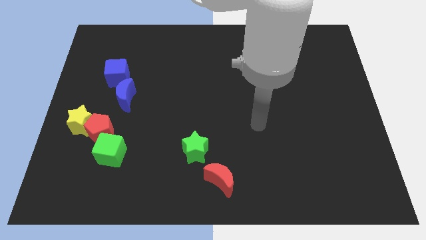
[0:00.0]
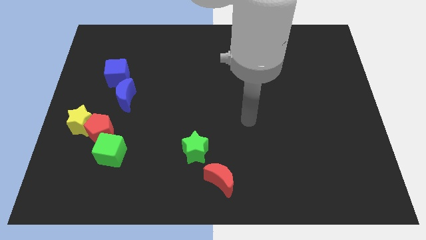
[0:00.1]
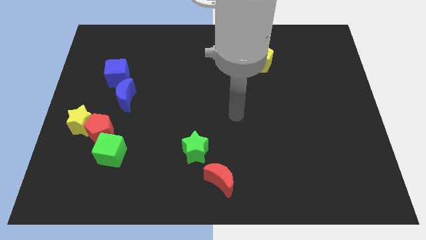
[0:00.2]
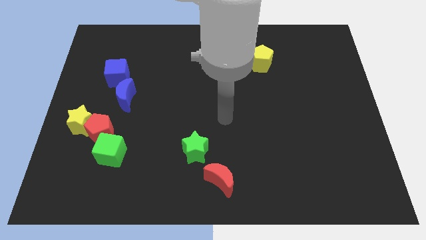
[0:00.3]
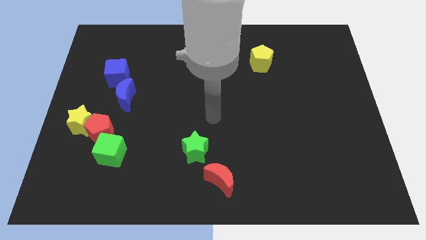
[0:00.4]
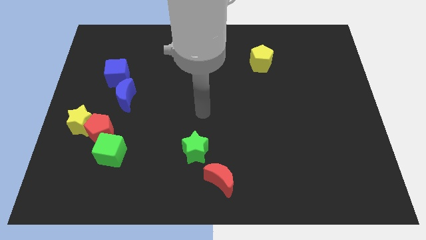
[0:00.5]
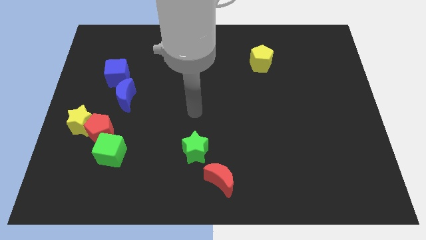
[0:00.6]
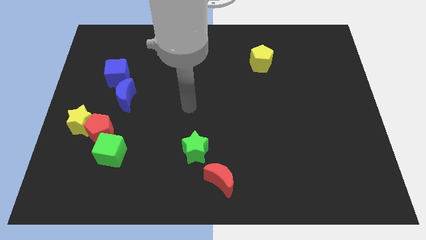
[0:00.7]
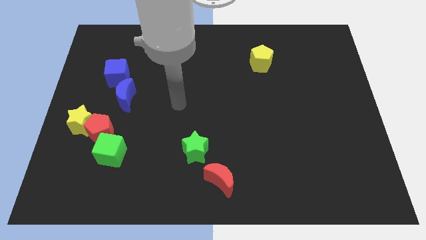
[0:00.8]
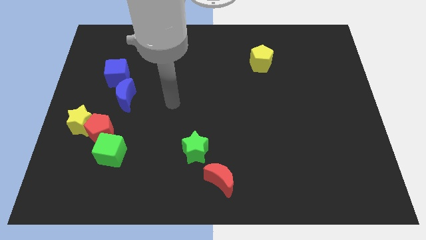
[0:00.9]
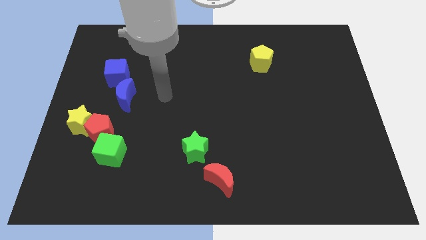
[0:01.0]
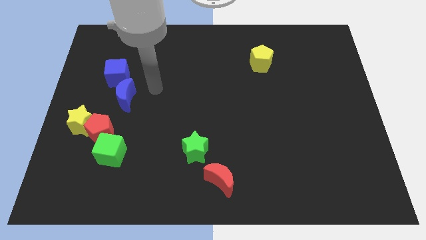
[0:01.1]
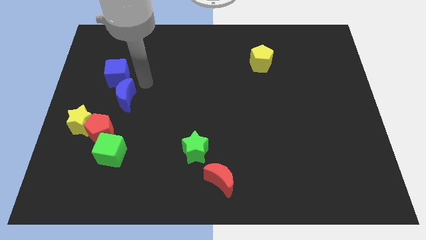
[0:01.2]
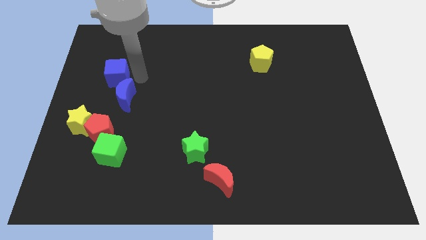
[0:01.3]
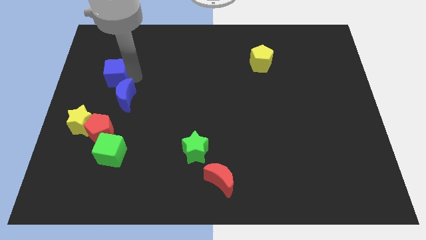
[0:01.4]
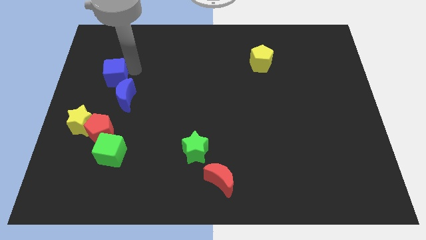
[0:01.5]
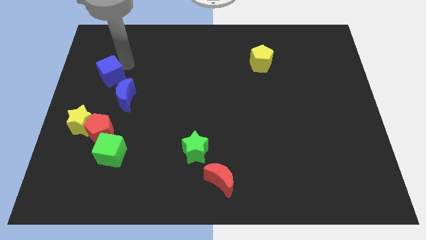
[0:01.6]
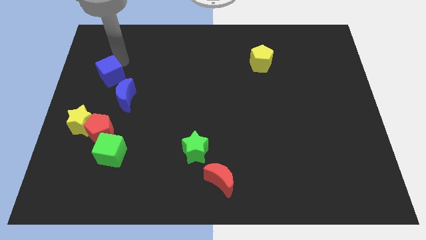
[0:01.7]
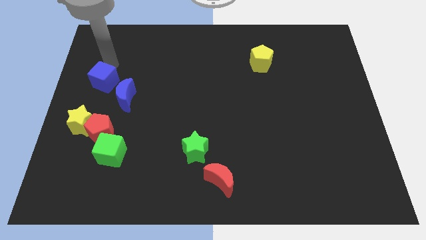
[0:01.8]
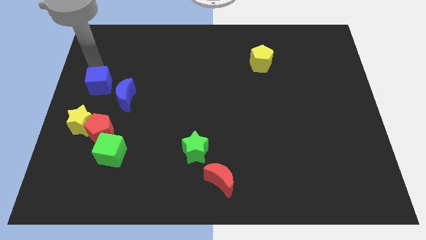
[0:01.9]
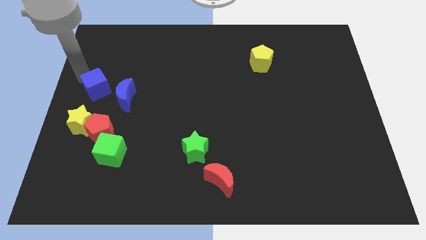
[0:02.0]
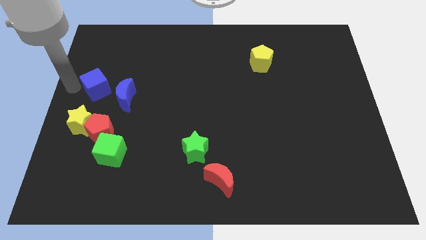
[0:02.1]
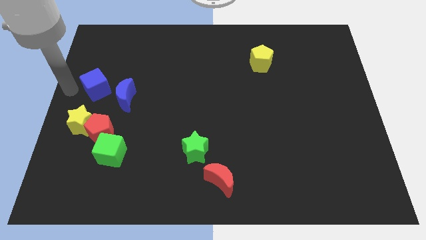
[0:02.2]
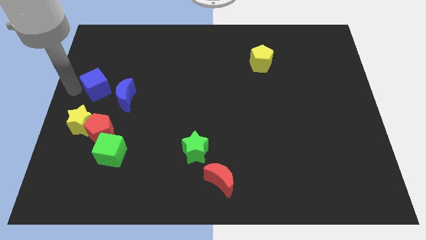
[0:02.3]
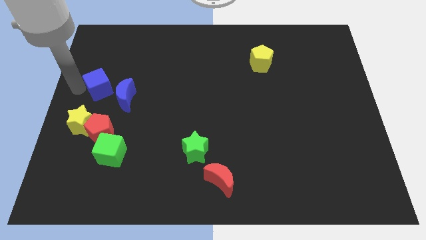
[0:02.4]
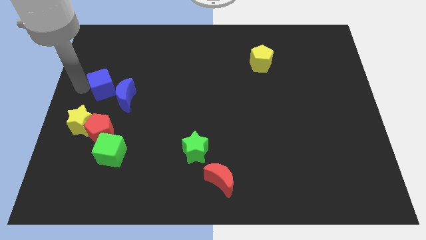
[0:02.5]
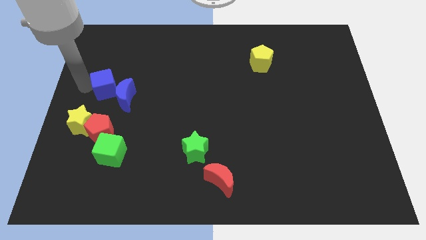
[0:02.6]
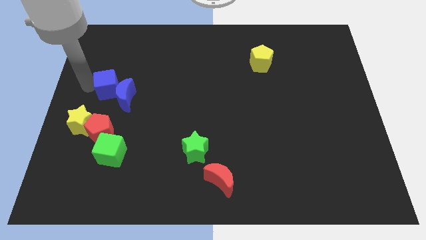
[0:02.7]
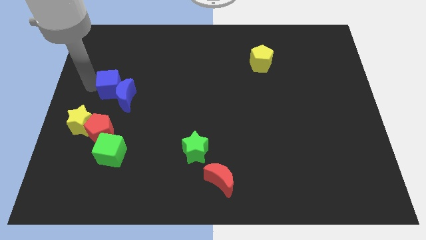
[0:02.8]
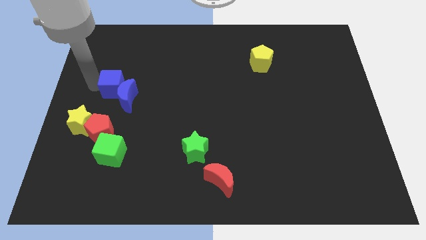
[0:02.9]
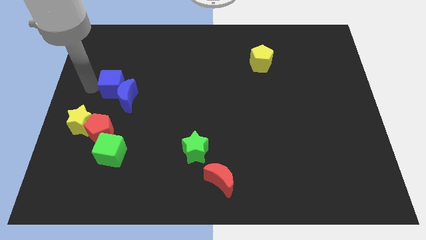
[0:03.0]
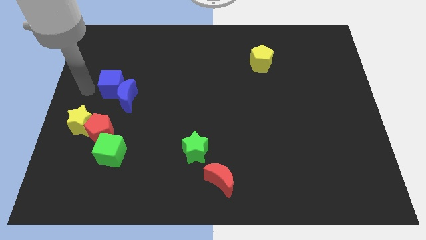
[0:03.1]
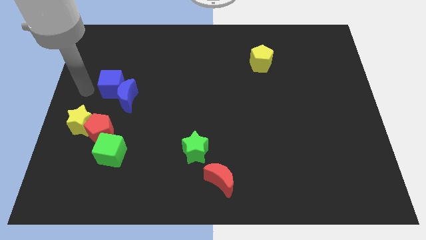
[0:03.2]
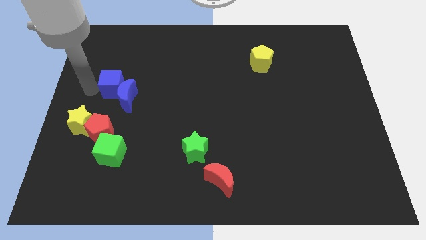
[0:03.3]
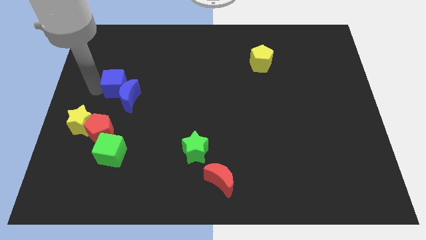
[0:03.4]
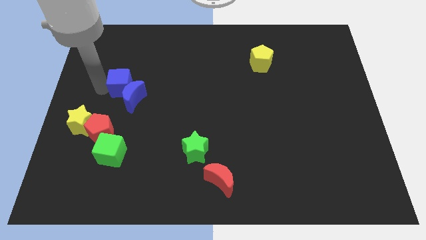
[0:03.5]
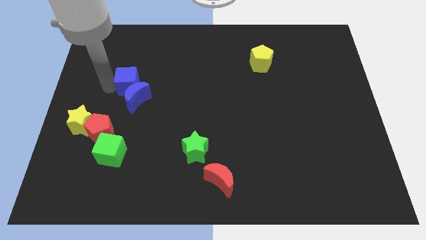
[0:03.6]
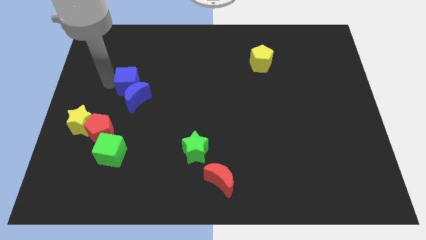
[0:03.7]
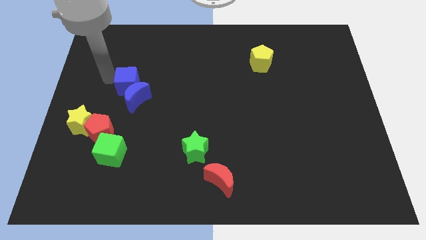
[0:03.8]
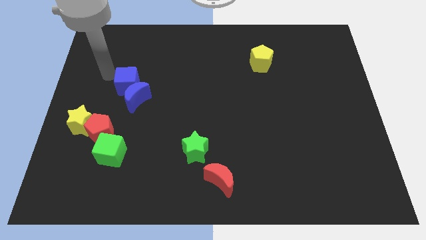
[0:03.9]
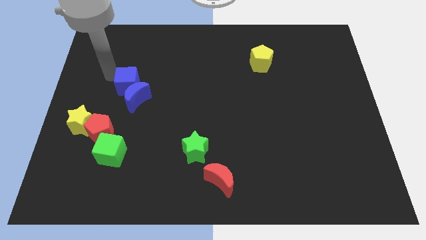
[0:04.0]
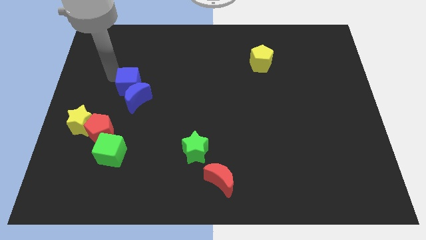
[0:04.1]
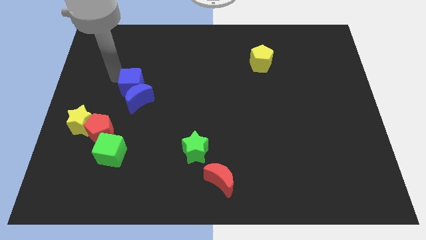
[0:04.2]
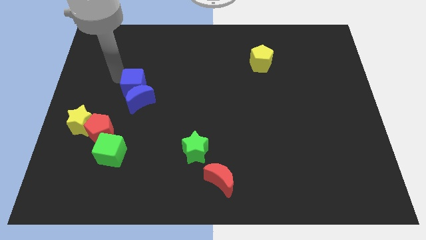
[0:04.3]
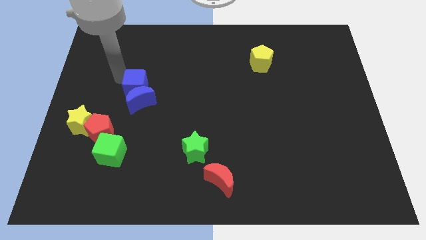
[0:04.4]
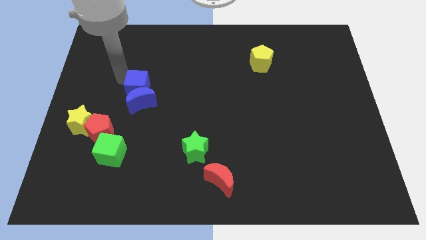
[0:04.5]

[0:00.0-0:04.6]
push the blue cube down and to the right diagonally somewhat

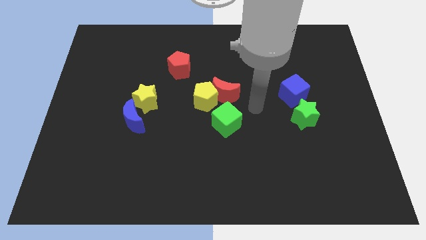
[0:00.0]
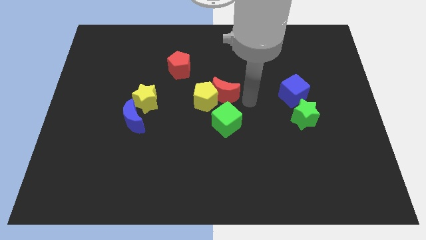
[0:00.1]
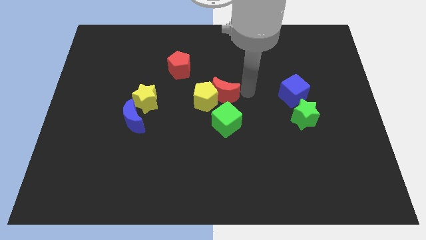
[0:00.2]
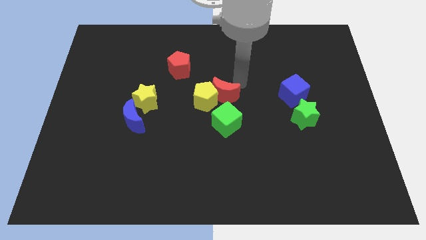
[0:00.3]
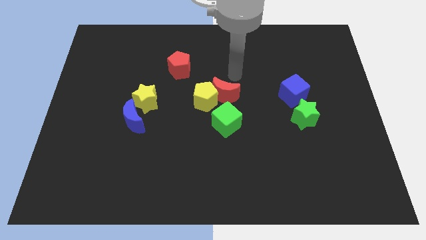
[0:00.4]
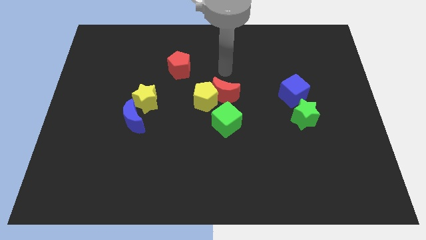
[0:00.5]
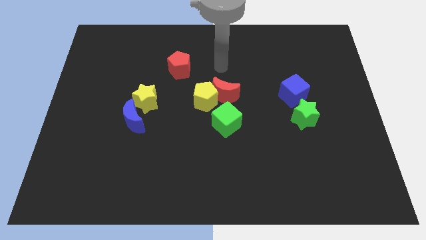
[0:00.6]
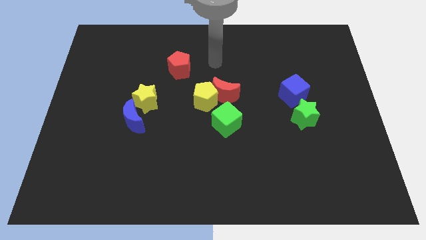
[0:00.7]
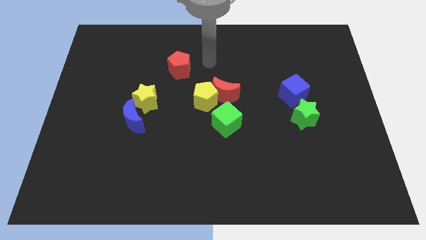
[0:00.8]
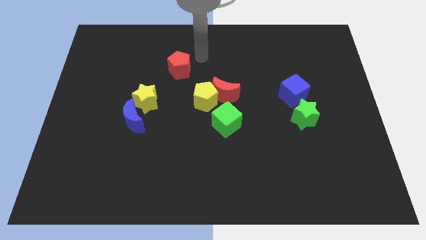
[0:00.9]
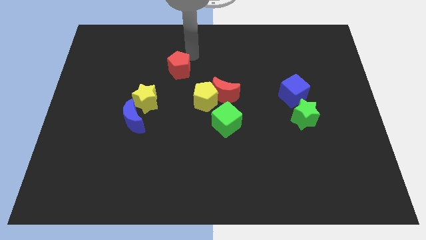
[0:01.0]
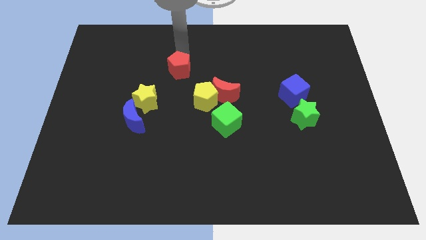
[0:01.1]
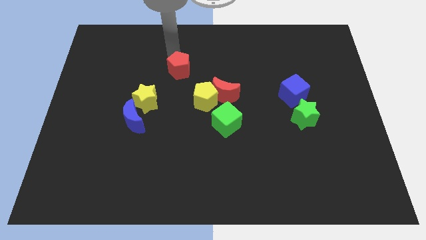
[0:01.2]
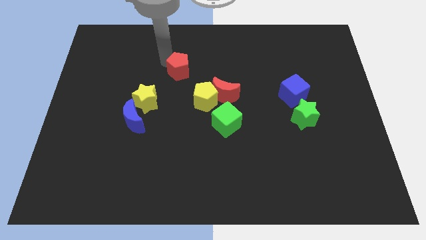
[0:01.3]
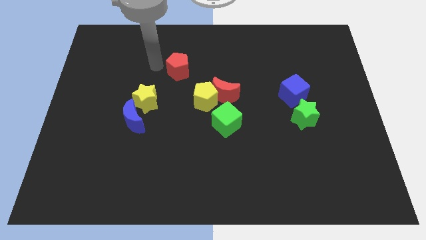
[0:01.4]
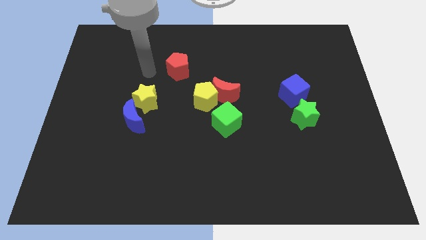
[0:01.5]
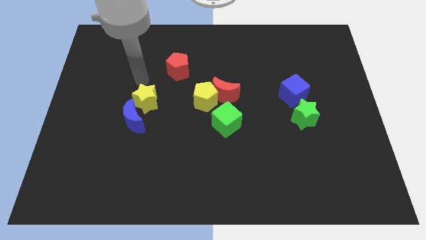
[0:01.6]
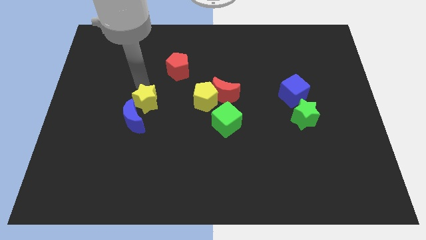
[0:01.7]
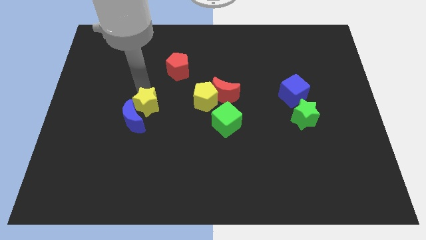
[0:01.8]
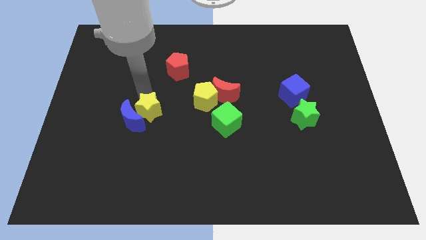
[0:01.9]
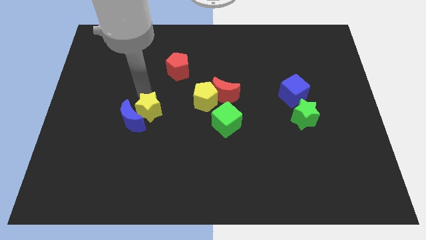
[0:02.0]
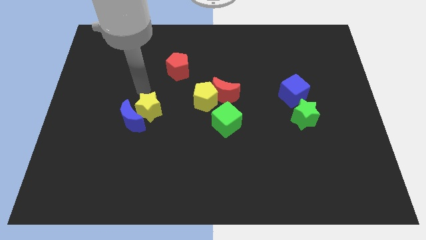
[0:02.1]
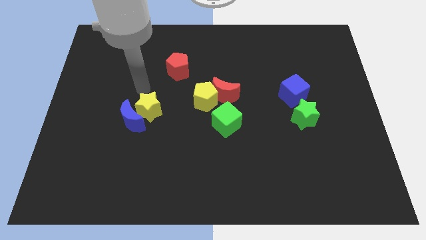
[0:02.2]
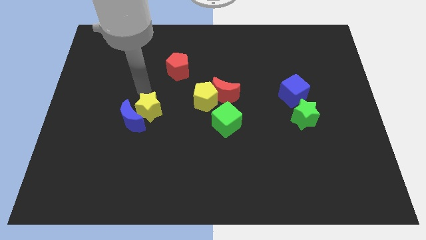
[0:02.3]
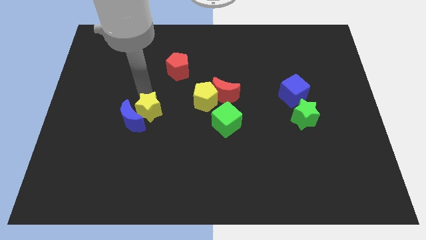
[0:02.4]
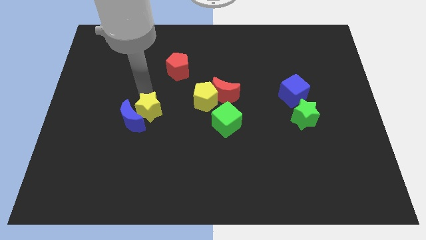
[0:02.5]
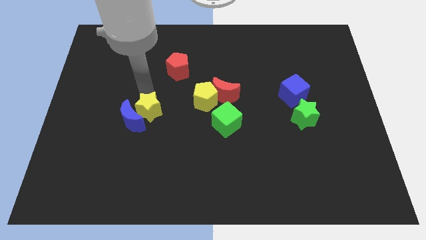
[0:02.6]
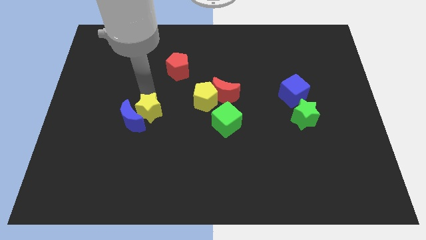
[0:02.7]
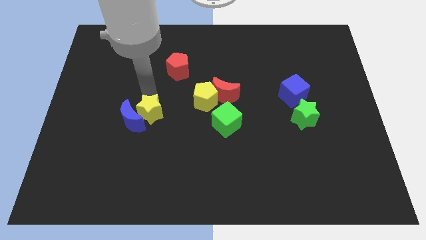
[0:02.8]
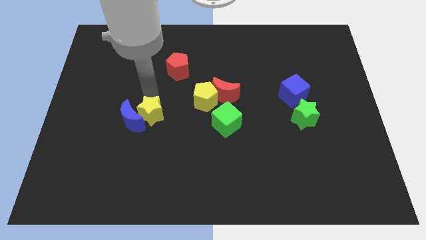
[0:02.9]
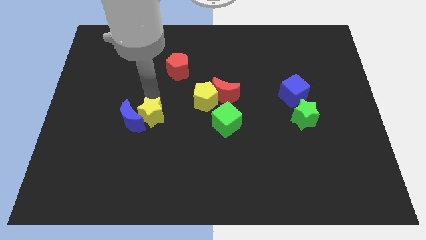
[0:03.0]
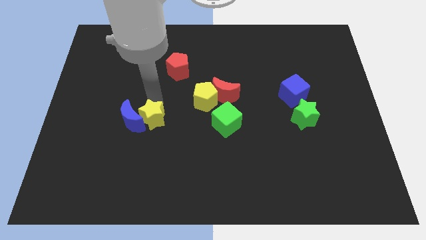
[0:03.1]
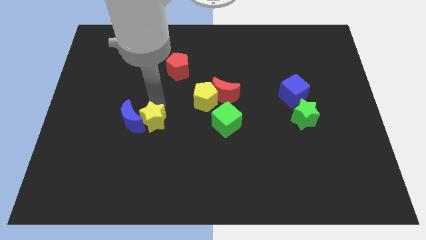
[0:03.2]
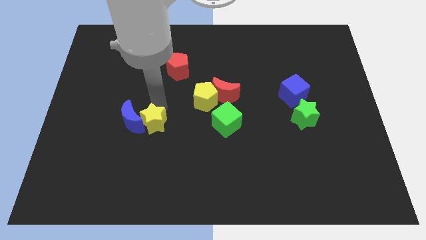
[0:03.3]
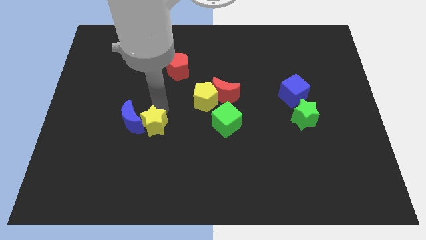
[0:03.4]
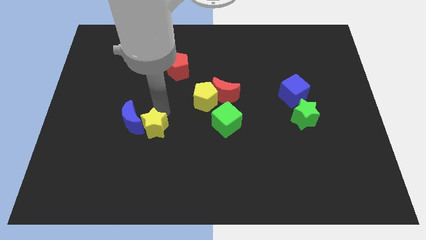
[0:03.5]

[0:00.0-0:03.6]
push the yellow star somewhat down
